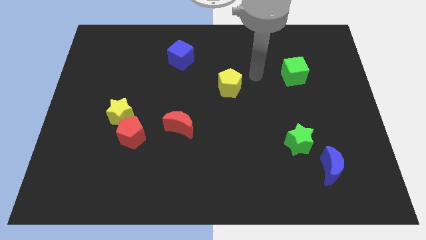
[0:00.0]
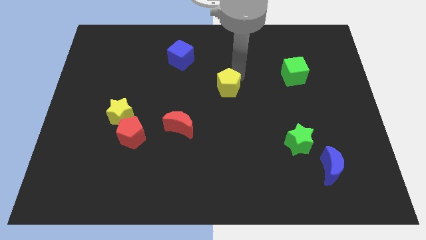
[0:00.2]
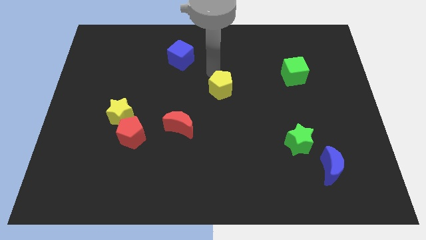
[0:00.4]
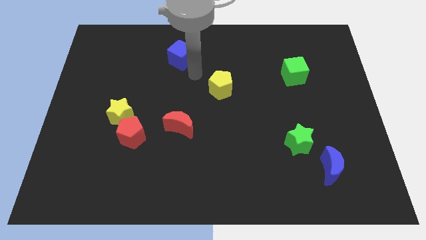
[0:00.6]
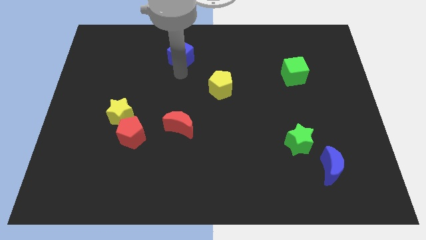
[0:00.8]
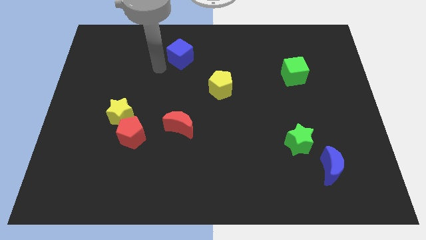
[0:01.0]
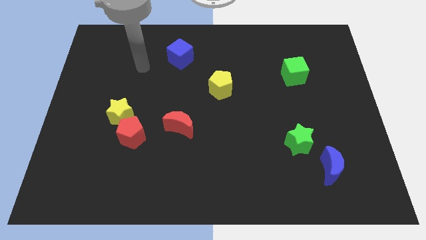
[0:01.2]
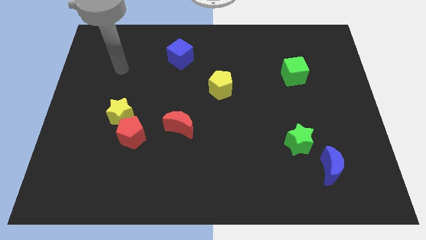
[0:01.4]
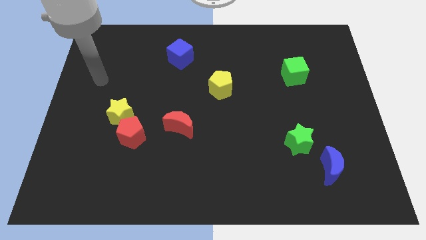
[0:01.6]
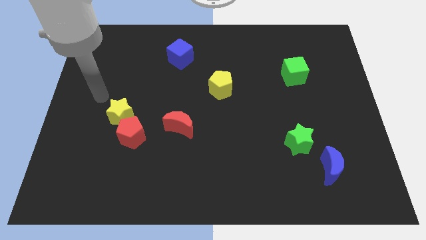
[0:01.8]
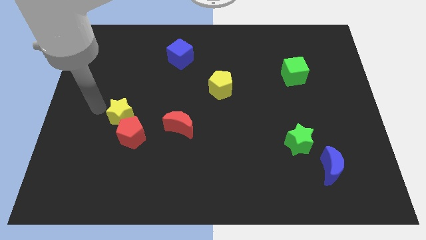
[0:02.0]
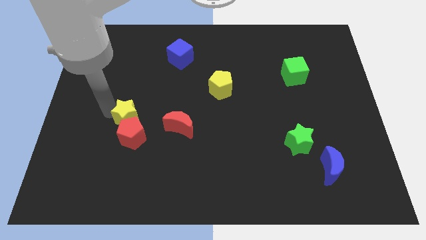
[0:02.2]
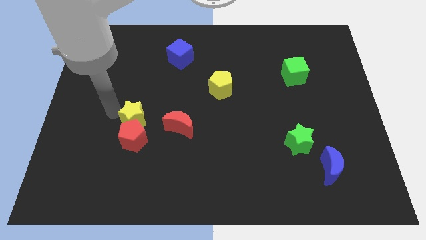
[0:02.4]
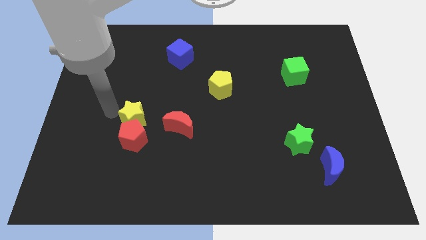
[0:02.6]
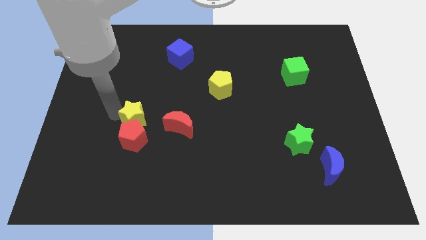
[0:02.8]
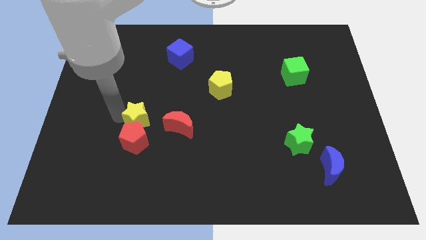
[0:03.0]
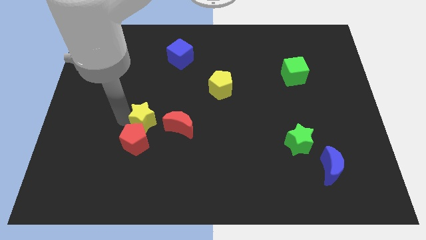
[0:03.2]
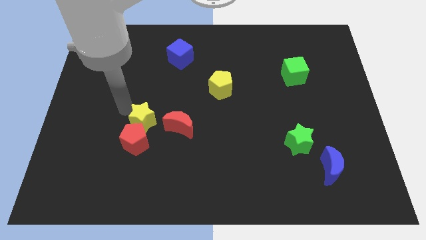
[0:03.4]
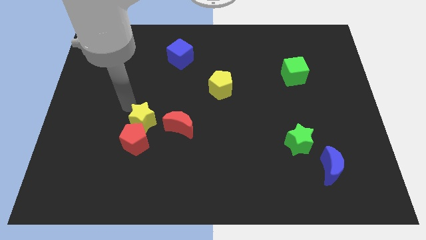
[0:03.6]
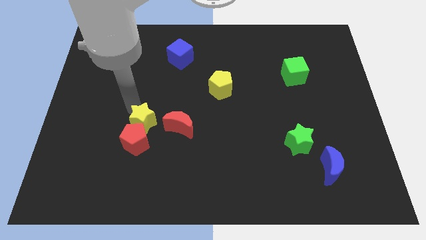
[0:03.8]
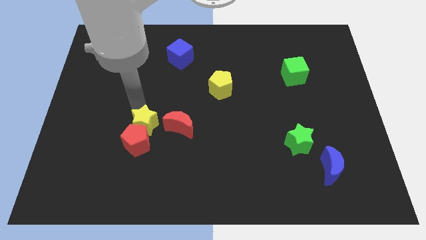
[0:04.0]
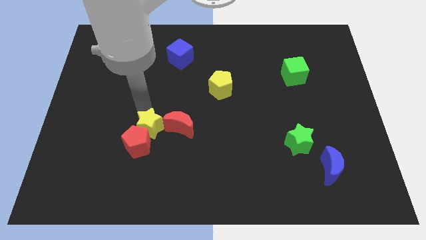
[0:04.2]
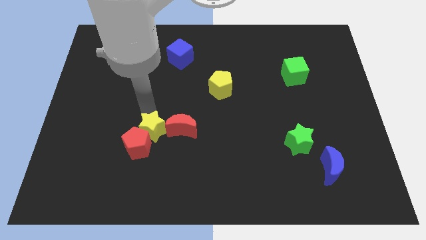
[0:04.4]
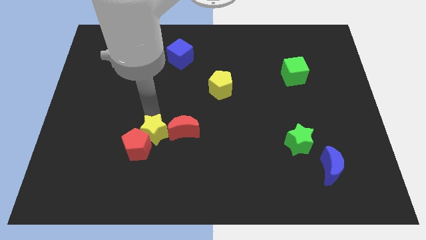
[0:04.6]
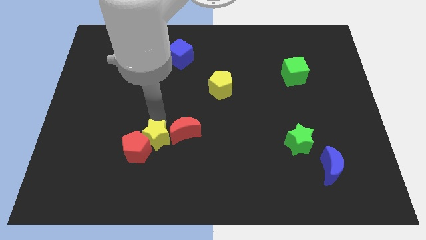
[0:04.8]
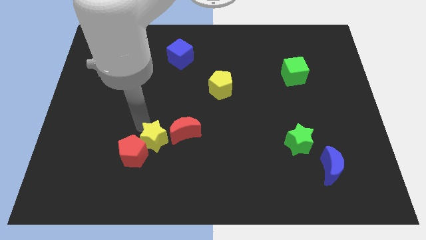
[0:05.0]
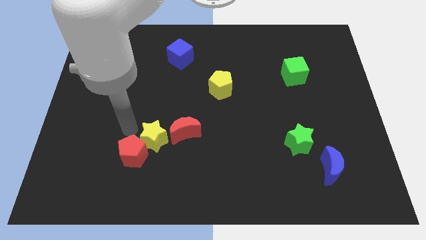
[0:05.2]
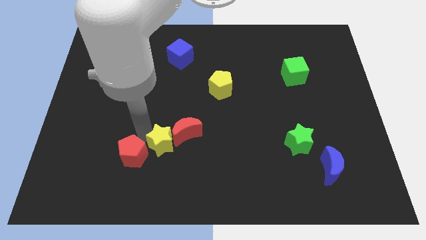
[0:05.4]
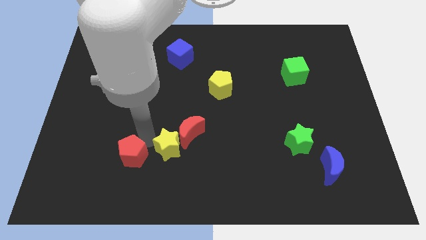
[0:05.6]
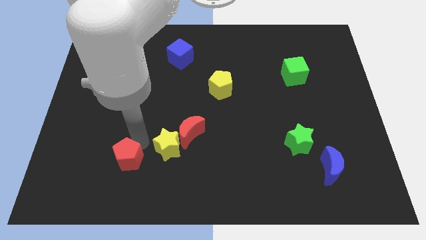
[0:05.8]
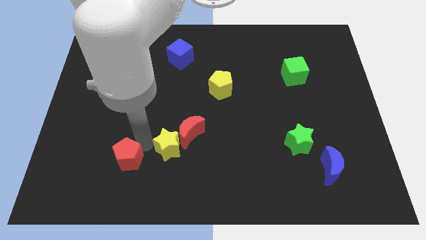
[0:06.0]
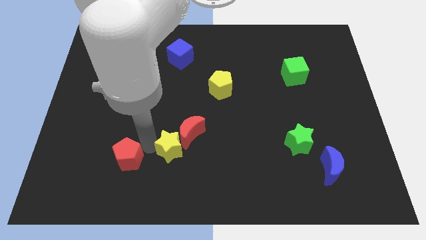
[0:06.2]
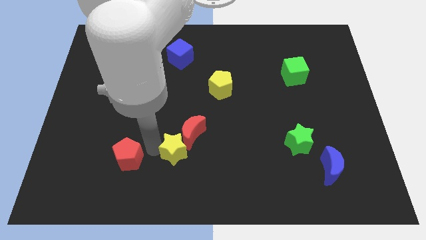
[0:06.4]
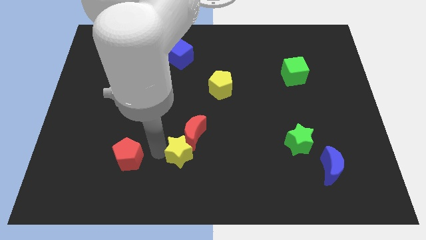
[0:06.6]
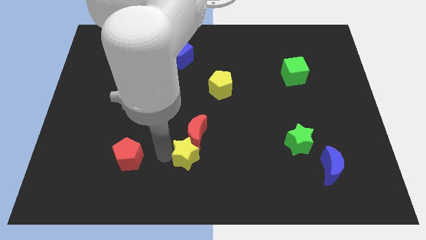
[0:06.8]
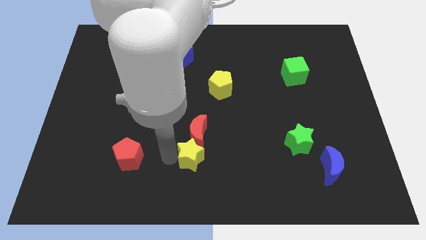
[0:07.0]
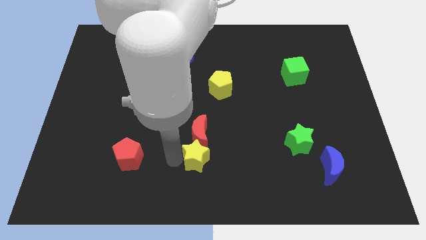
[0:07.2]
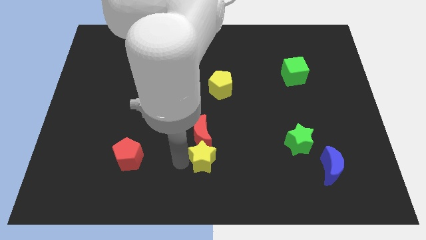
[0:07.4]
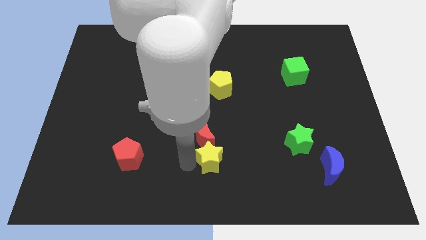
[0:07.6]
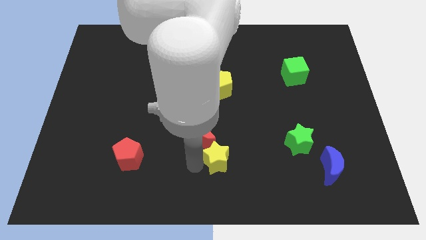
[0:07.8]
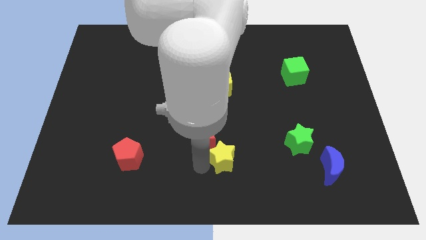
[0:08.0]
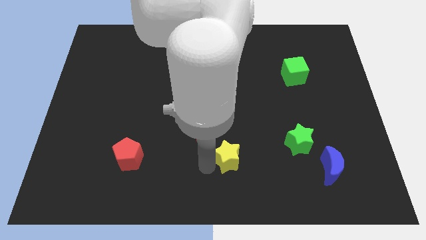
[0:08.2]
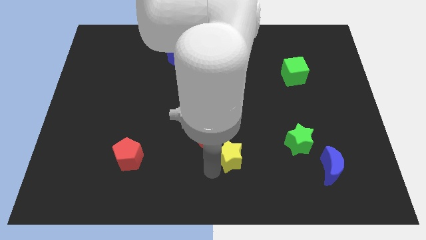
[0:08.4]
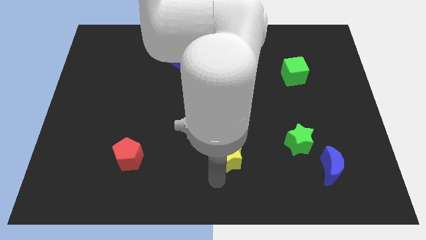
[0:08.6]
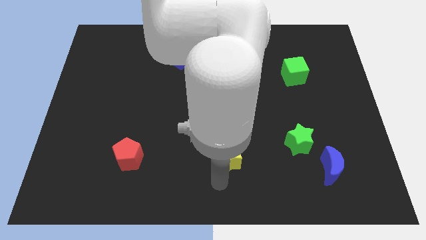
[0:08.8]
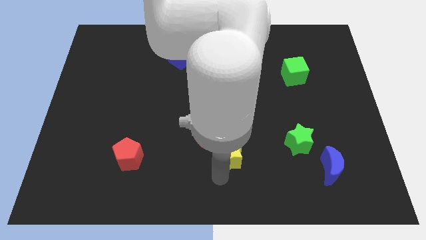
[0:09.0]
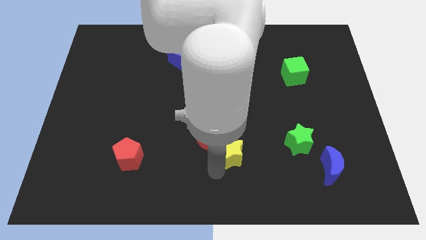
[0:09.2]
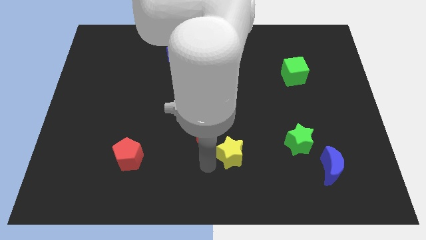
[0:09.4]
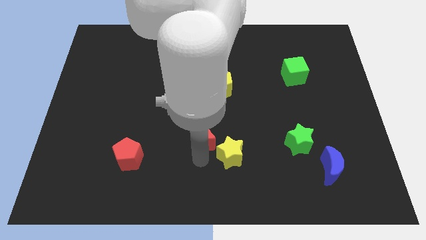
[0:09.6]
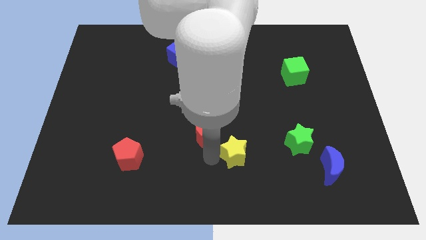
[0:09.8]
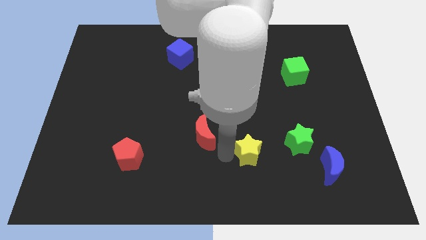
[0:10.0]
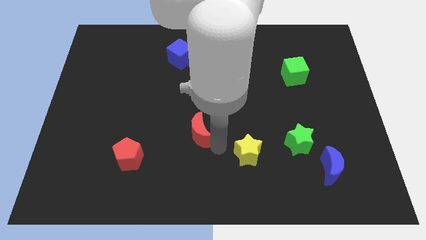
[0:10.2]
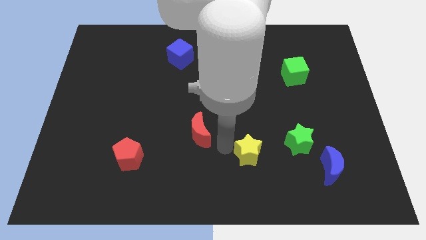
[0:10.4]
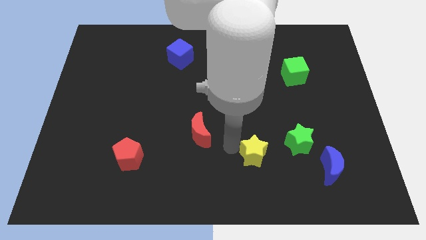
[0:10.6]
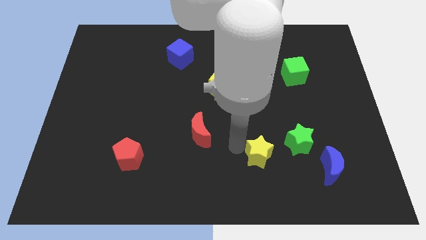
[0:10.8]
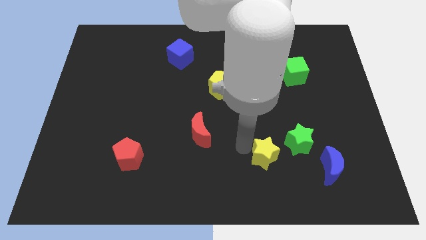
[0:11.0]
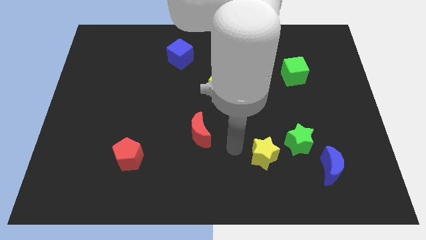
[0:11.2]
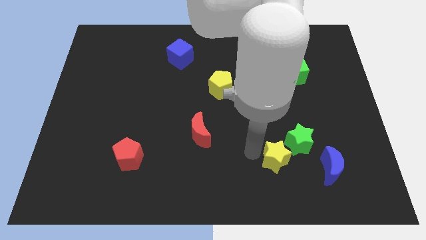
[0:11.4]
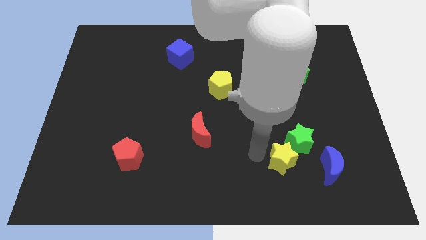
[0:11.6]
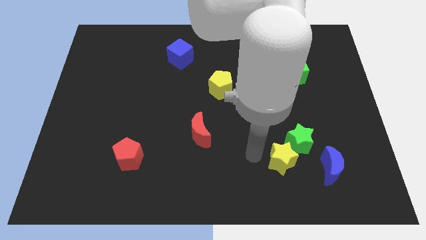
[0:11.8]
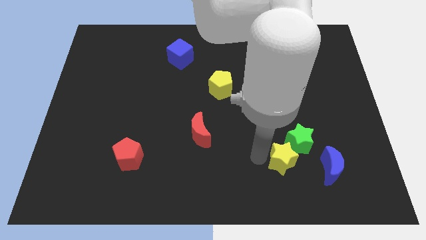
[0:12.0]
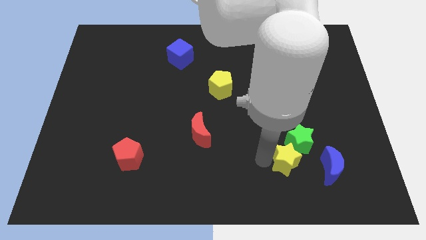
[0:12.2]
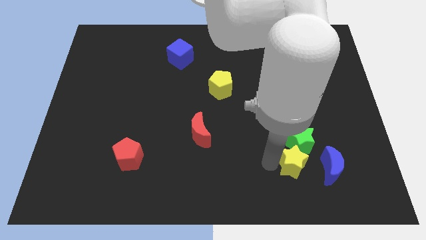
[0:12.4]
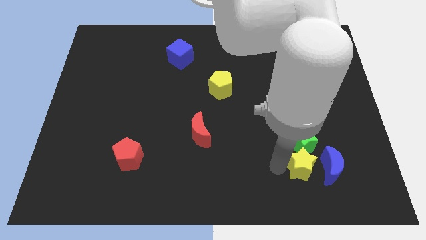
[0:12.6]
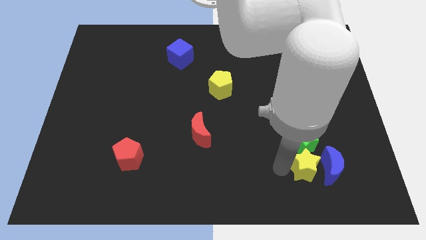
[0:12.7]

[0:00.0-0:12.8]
move the yellow star next to the blue moon
